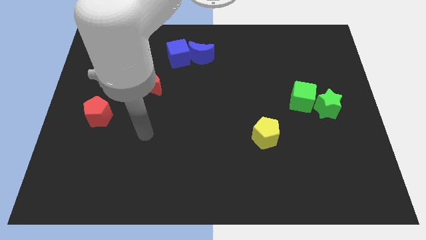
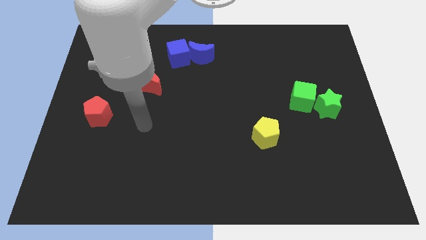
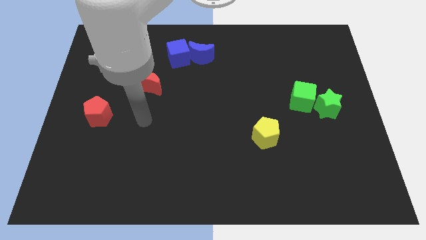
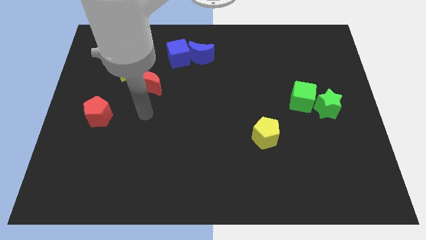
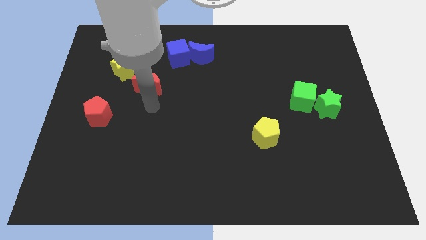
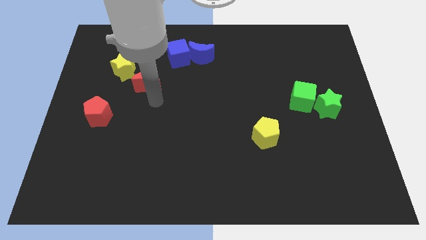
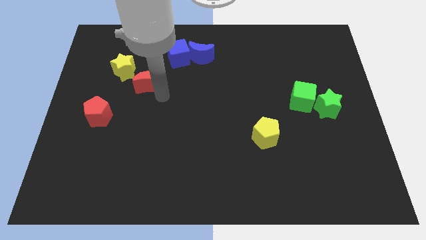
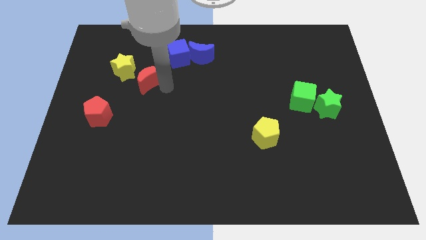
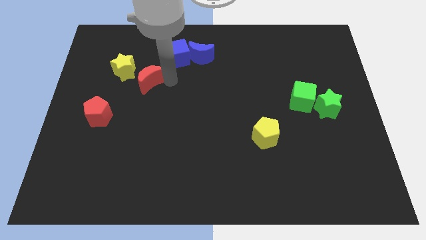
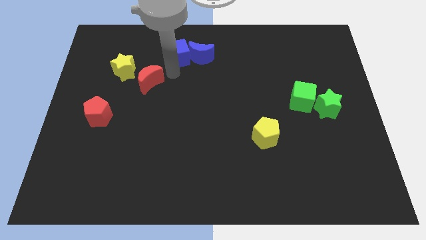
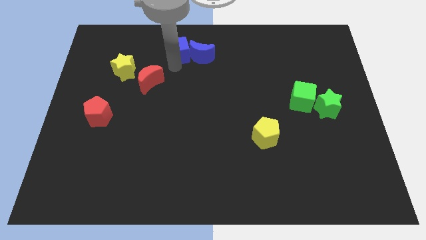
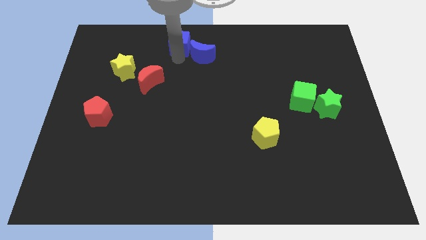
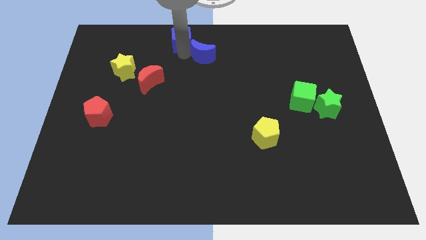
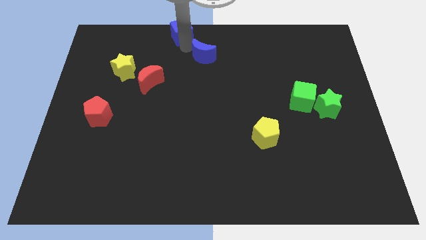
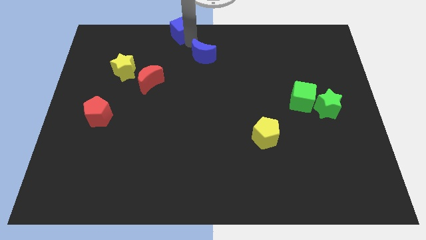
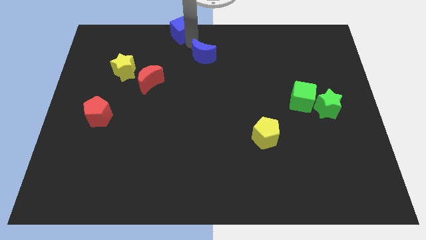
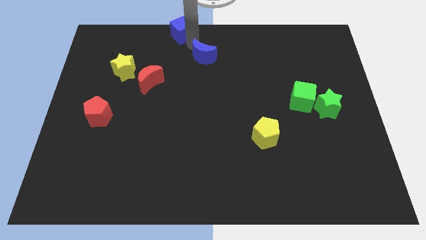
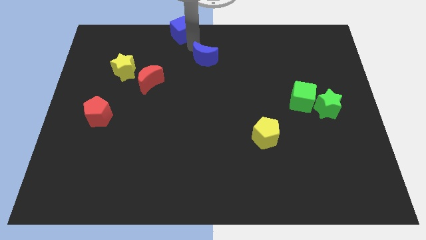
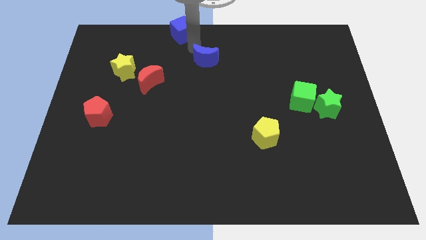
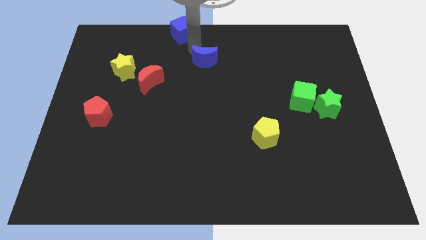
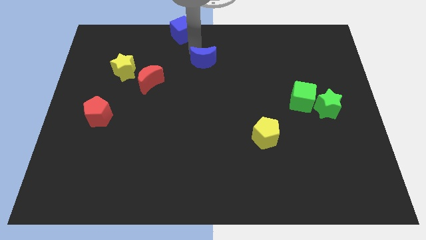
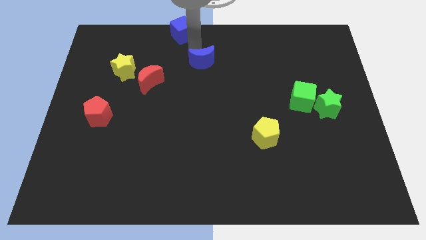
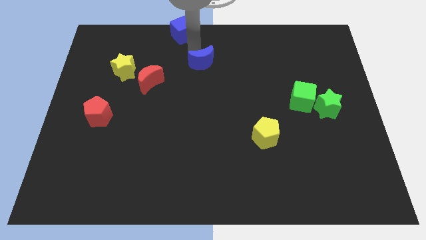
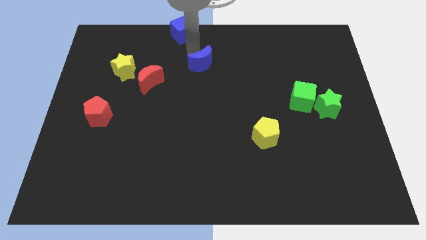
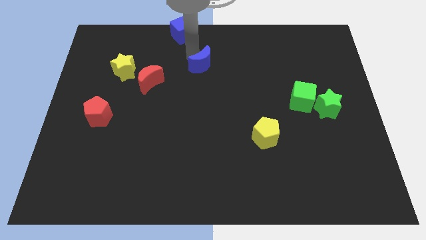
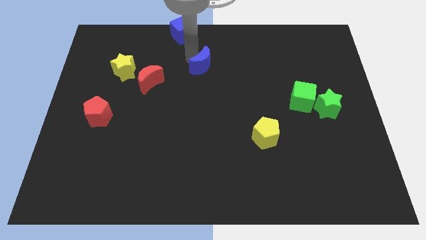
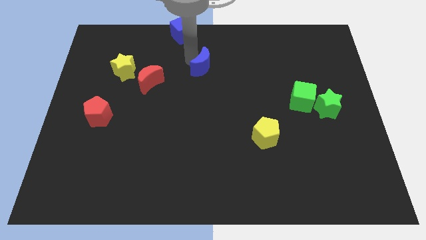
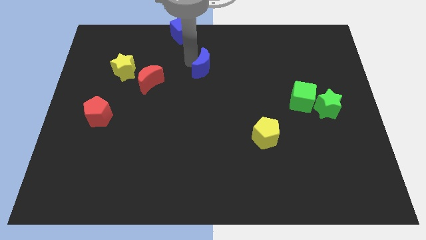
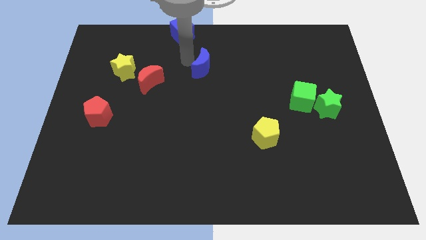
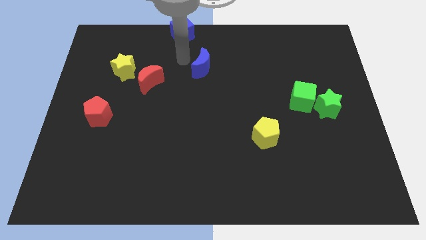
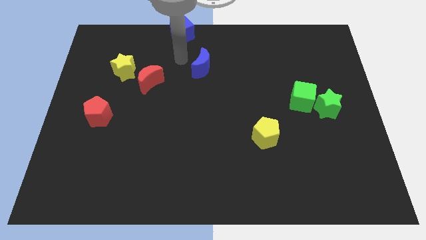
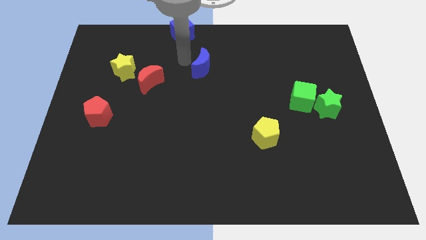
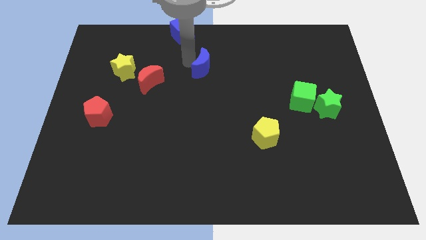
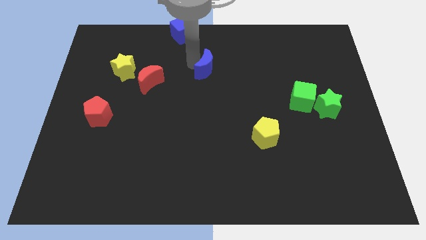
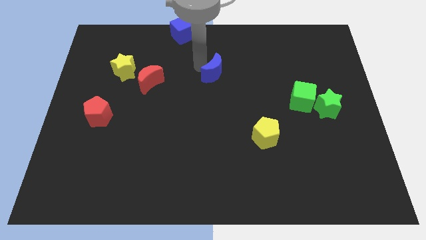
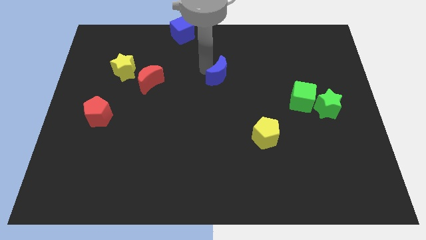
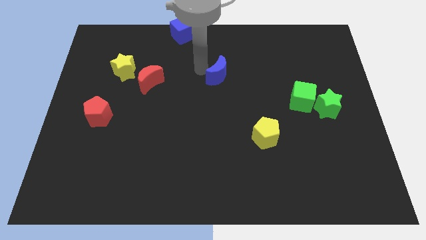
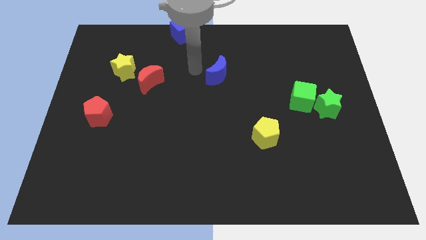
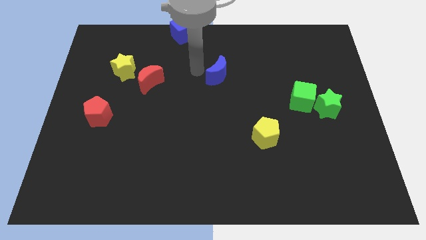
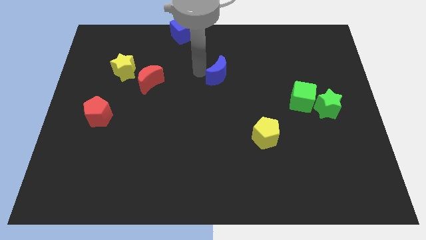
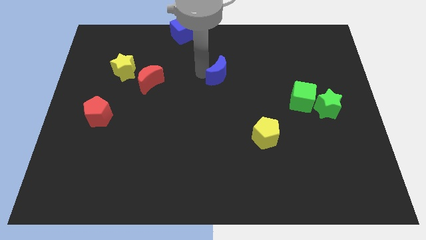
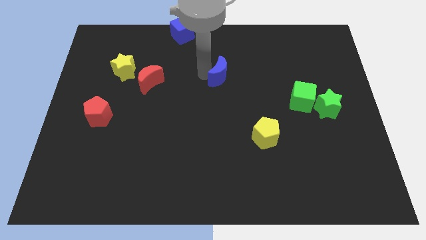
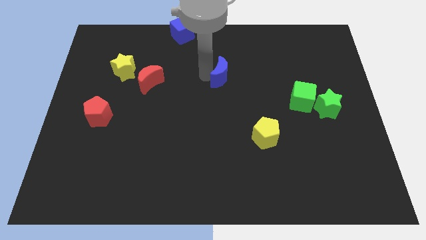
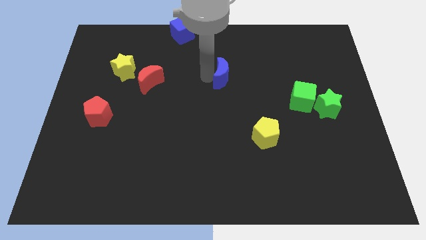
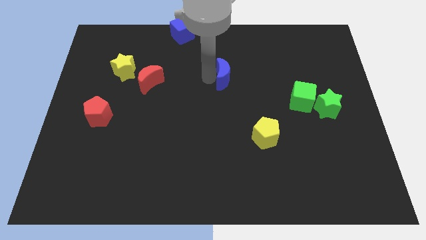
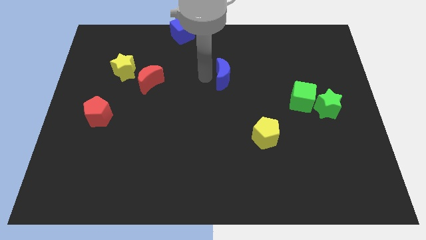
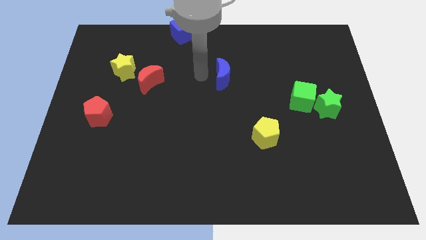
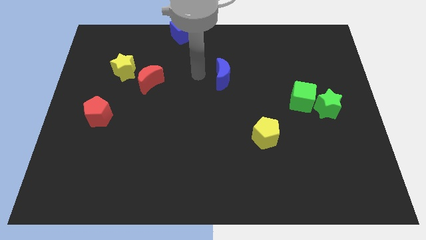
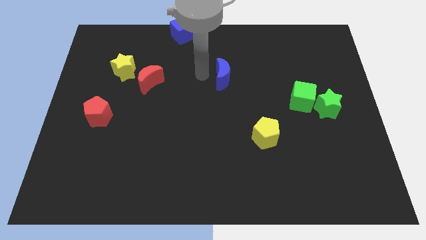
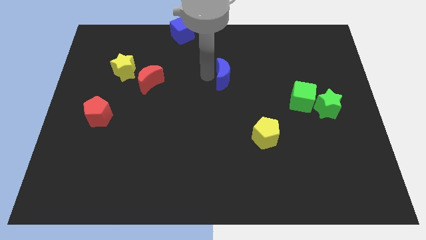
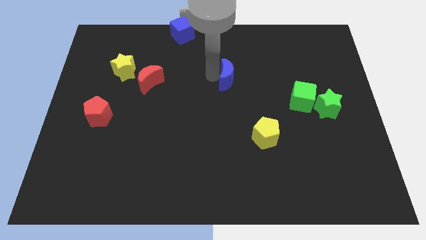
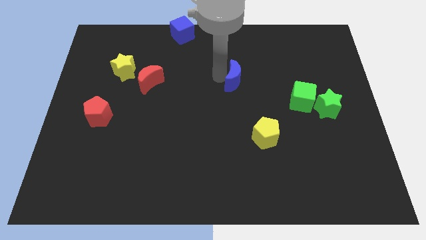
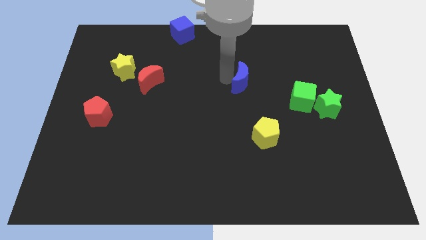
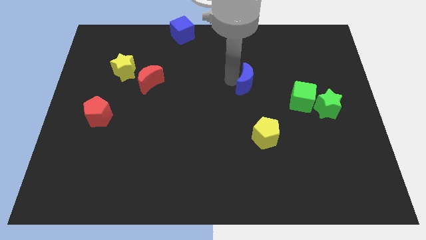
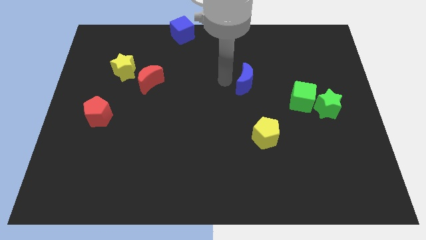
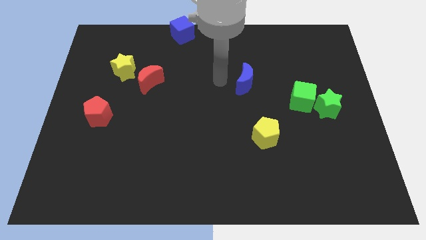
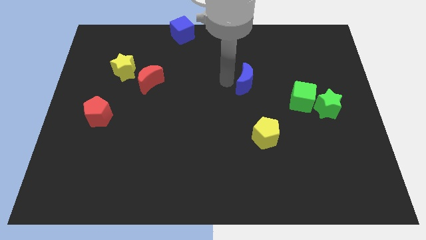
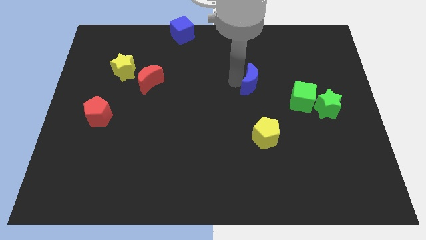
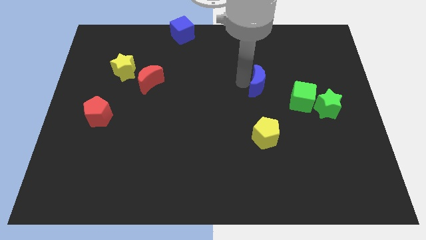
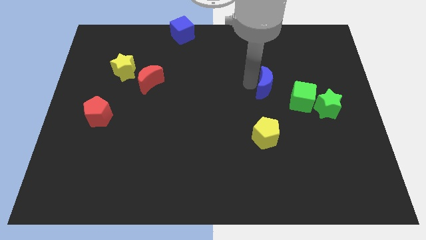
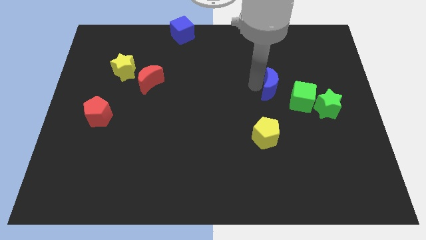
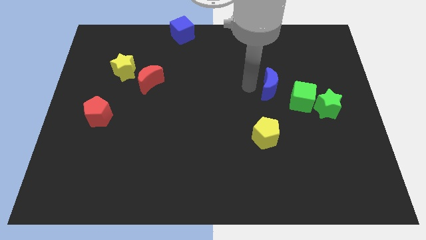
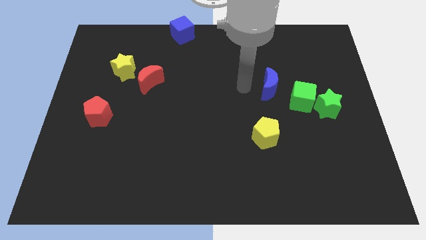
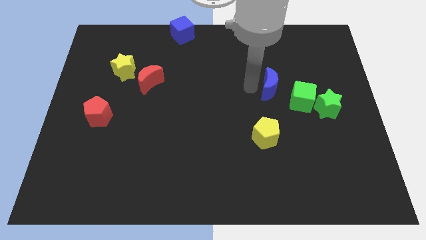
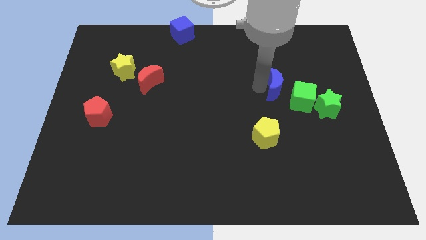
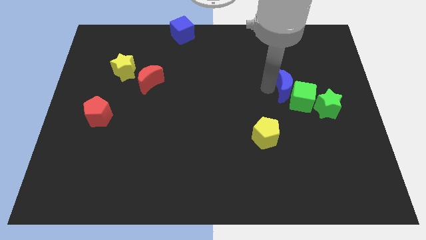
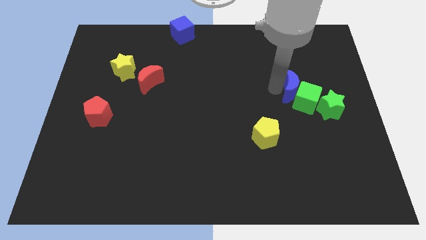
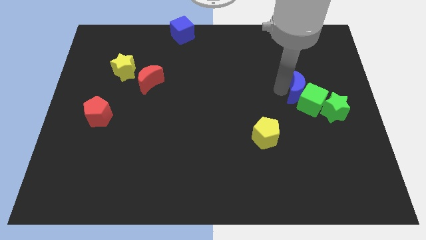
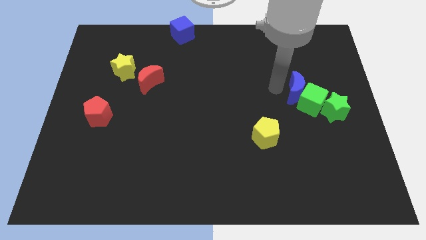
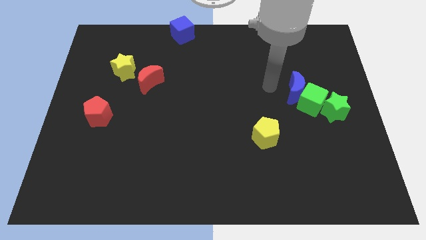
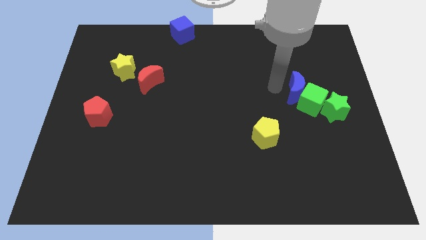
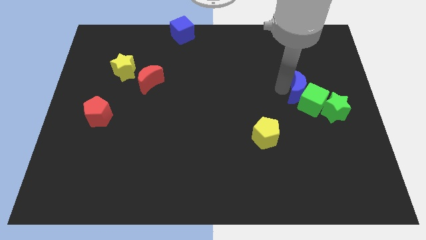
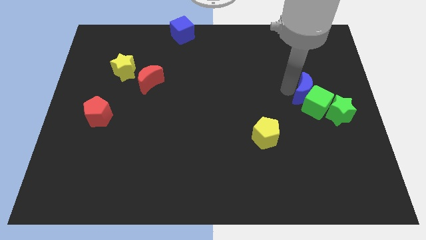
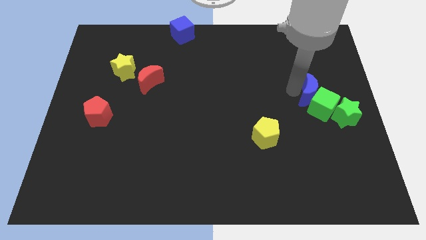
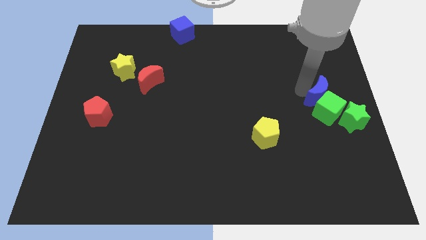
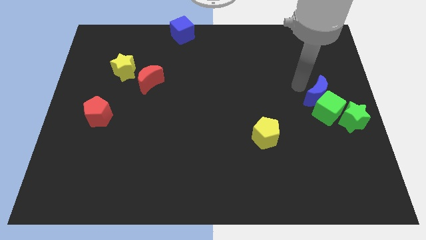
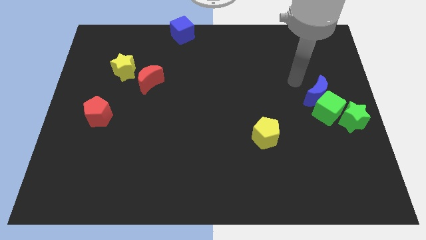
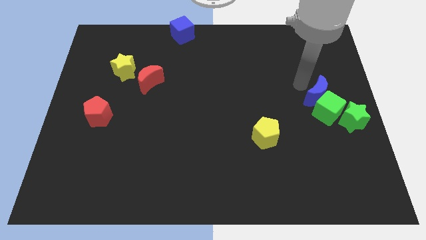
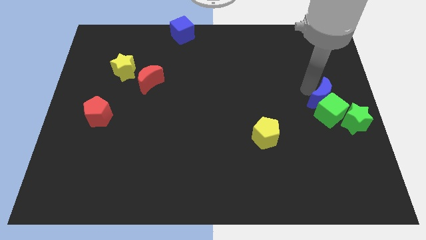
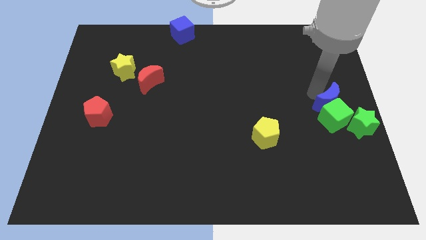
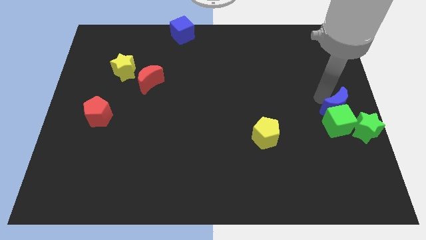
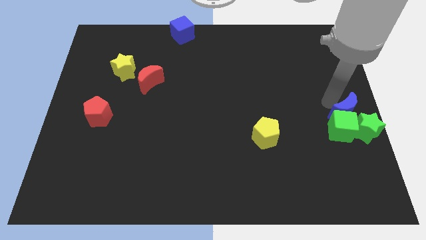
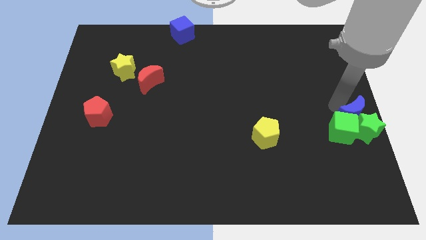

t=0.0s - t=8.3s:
slide the blue moon next to the green star
